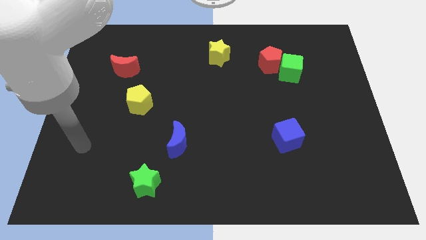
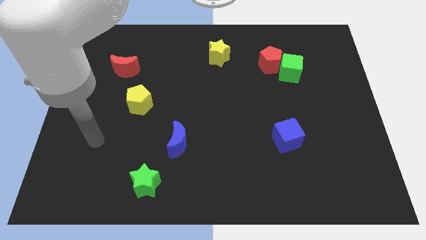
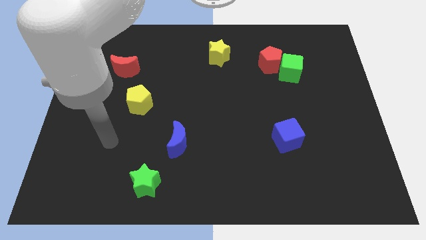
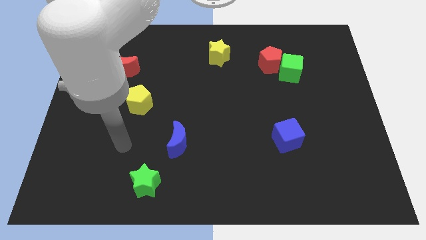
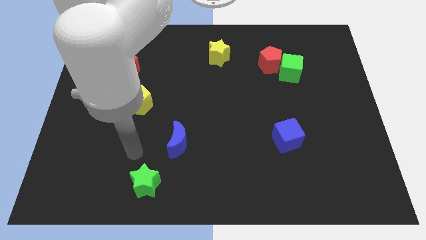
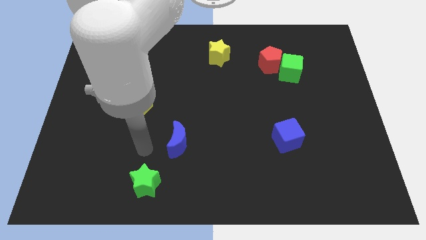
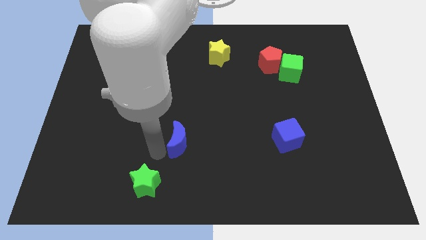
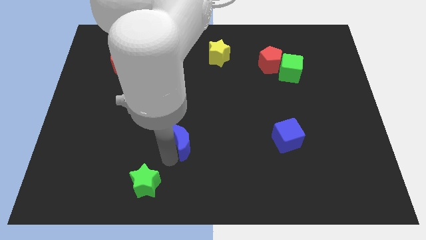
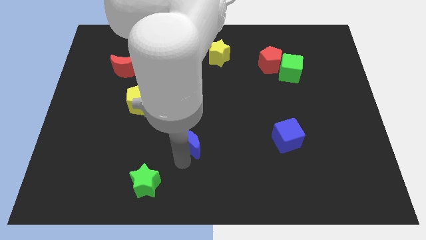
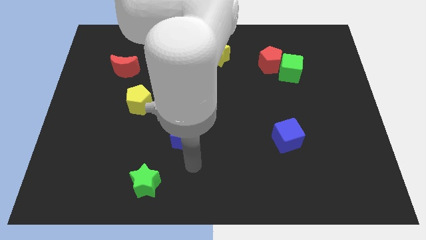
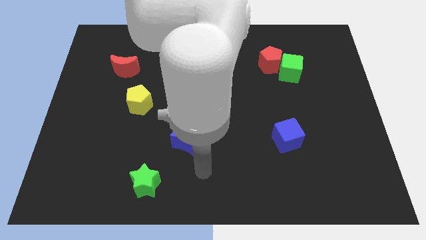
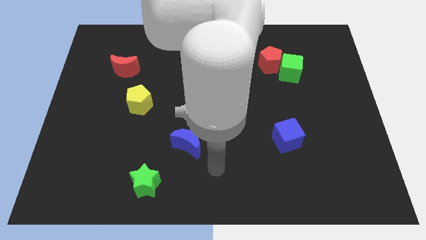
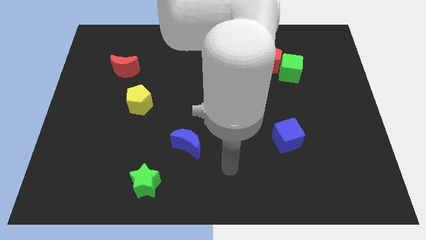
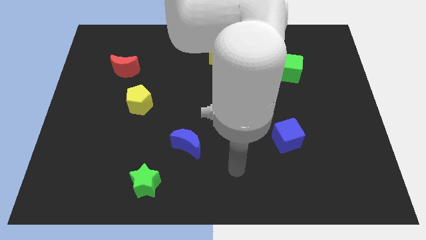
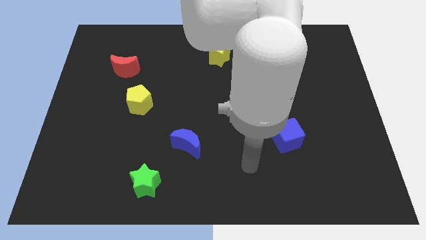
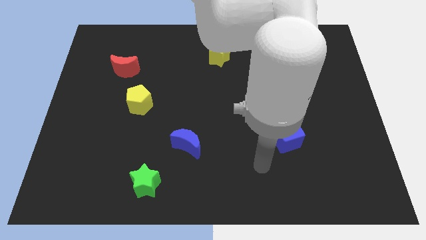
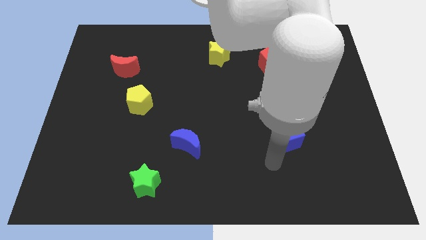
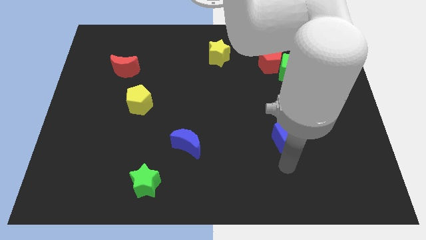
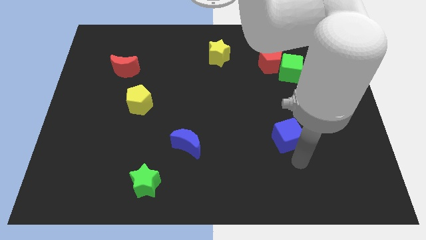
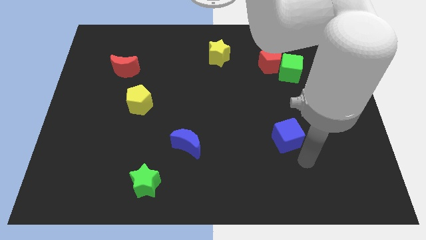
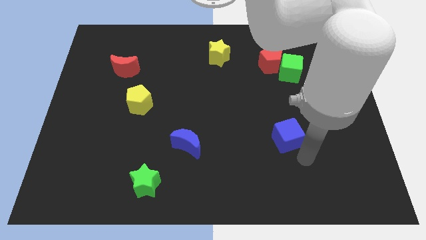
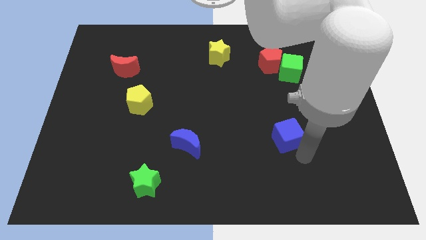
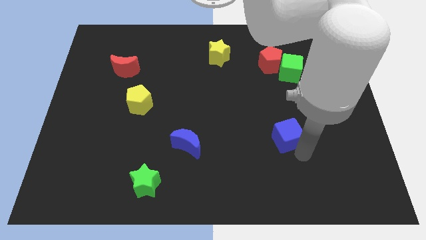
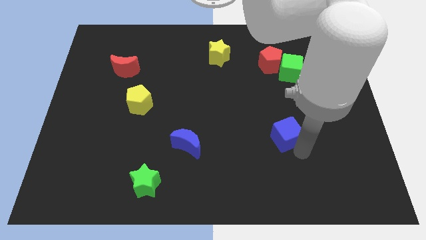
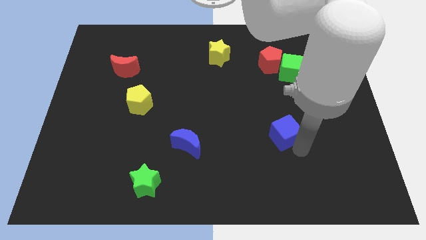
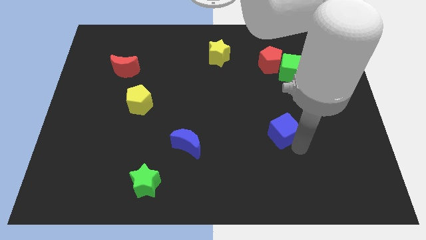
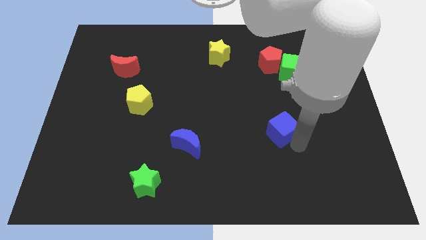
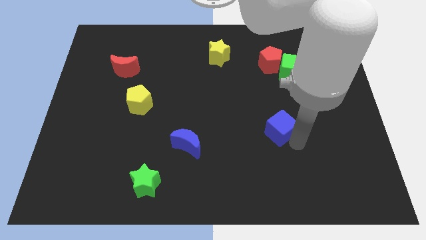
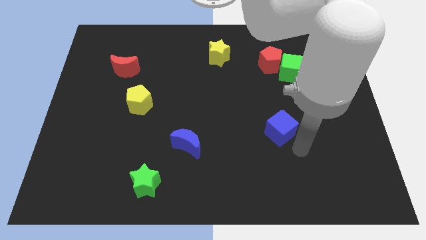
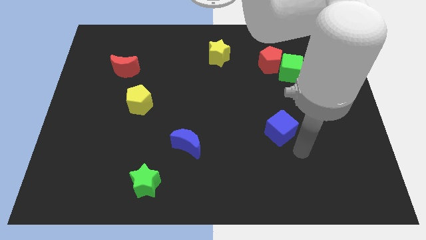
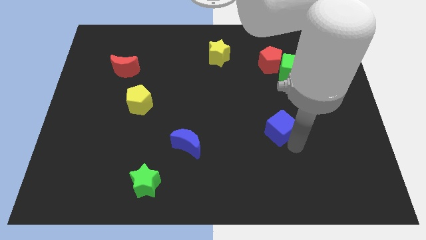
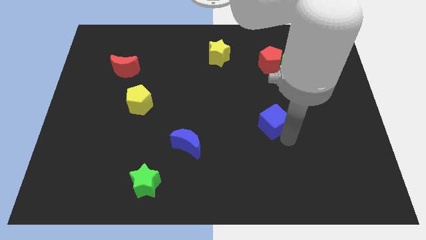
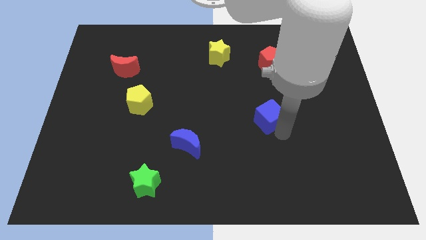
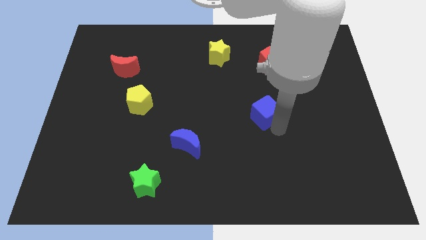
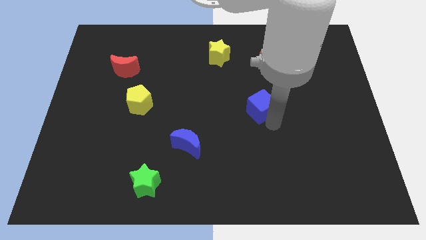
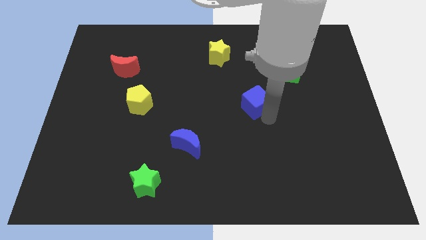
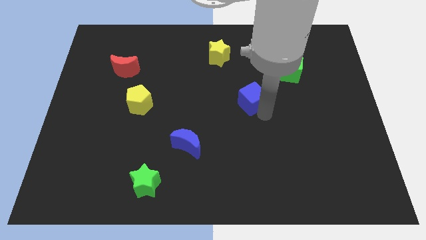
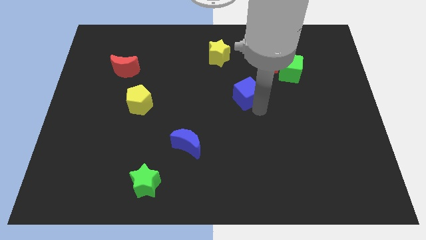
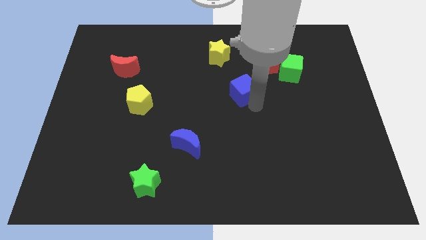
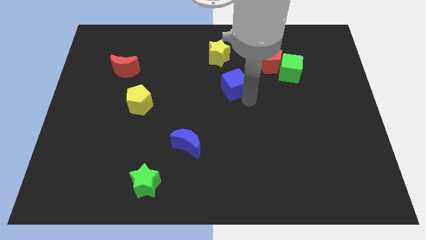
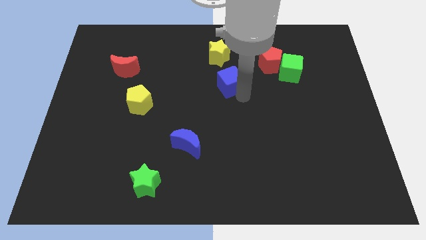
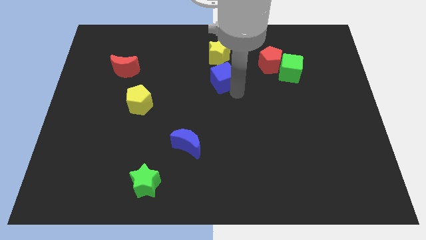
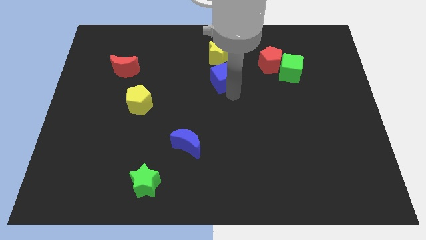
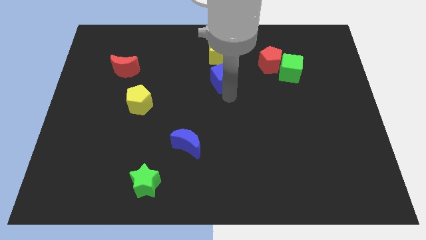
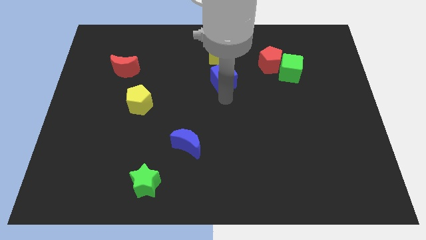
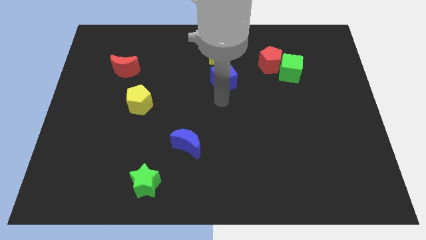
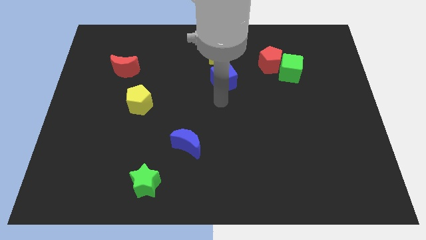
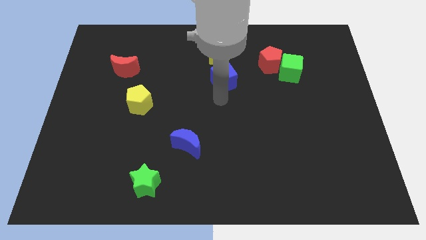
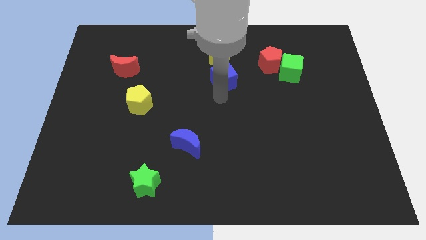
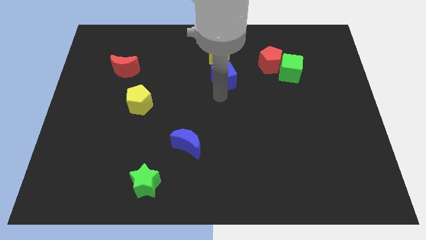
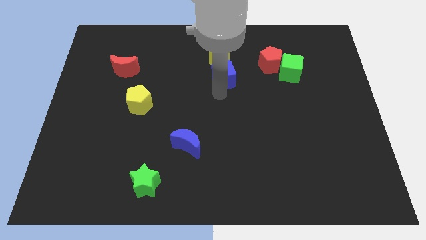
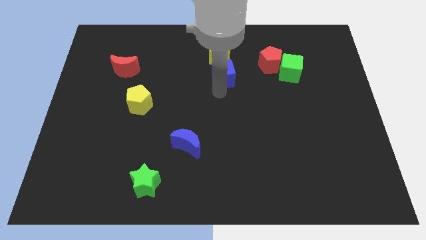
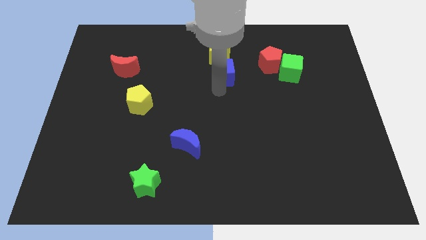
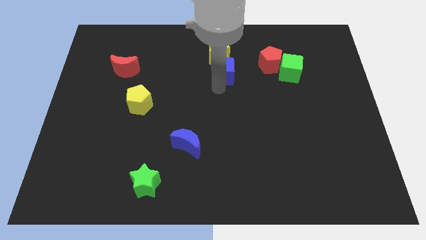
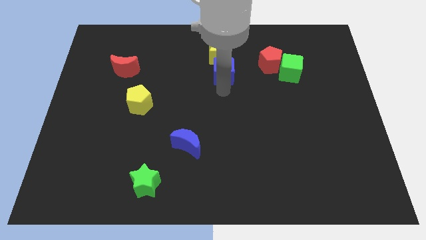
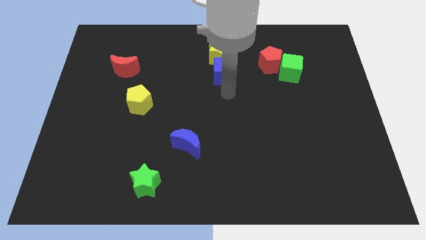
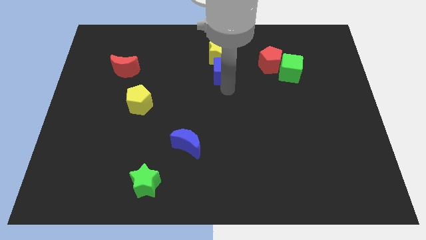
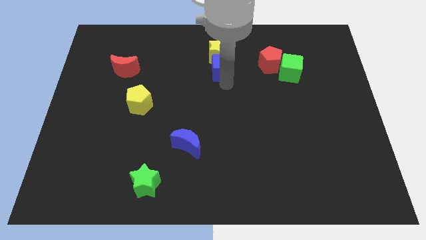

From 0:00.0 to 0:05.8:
move the blue cube next to the yellow star

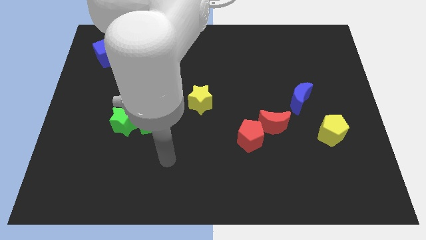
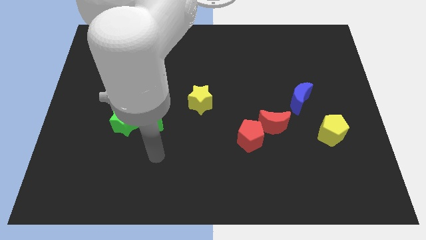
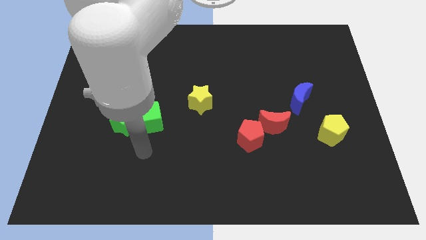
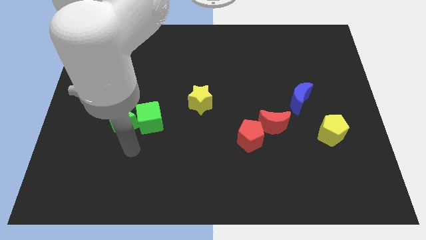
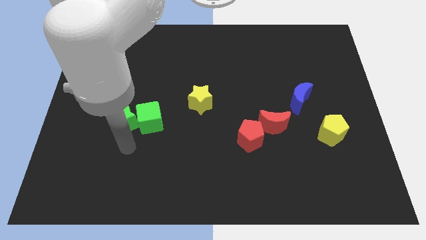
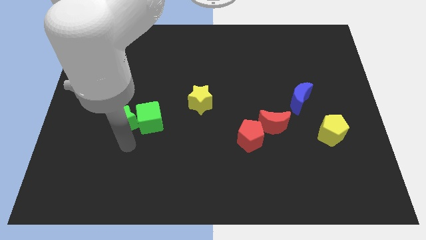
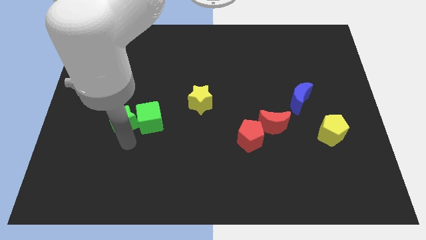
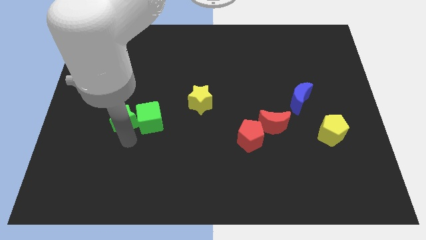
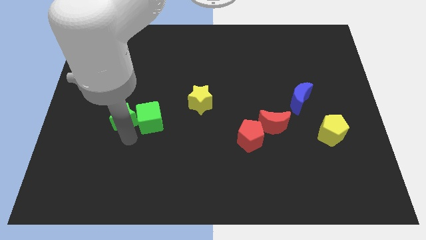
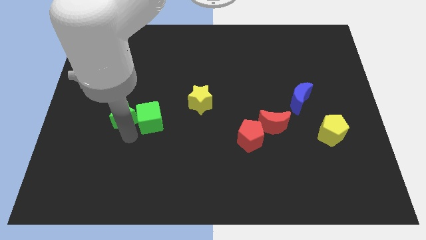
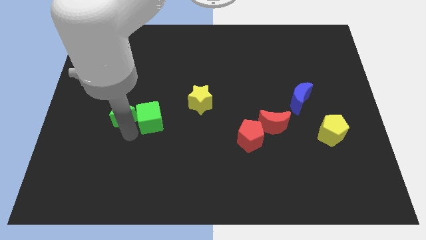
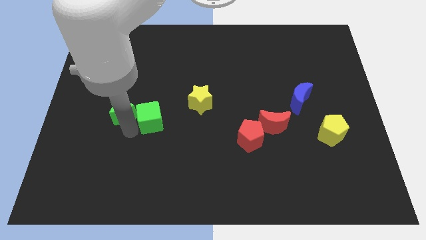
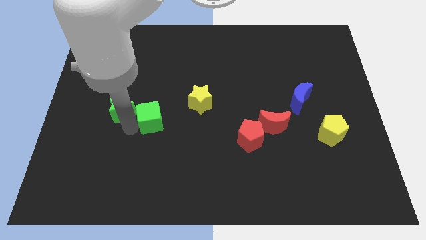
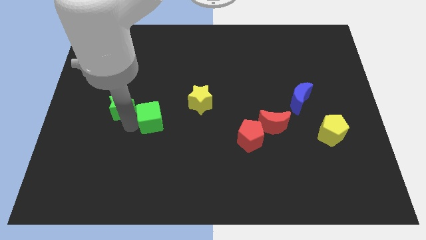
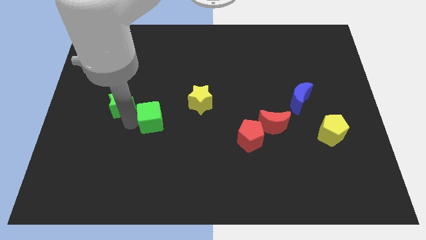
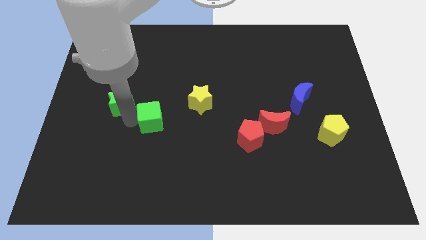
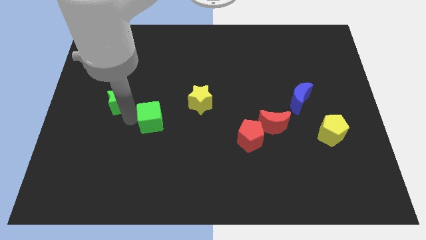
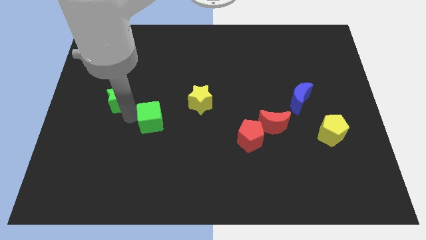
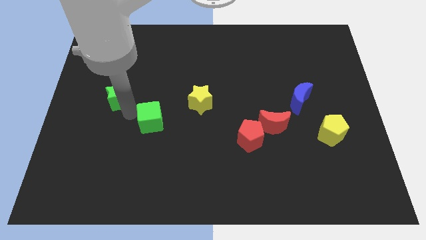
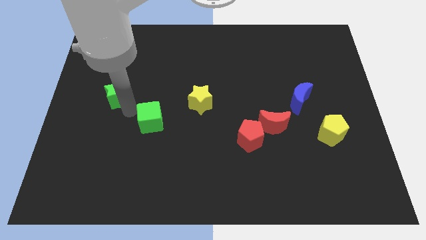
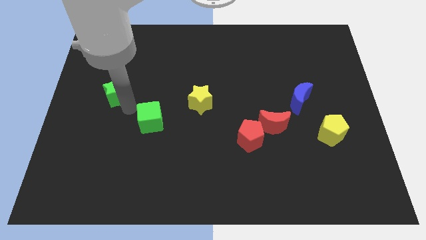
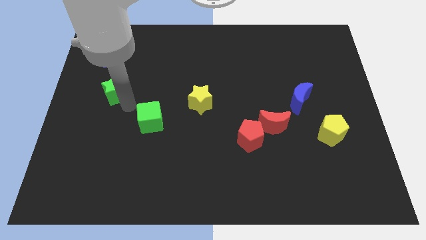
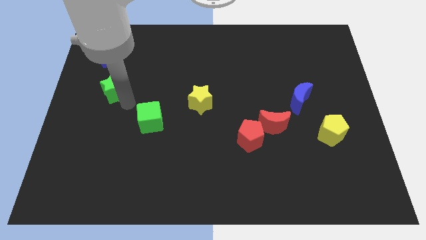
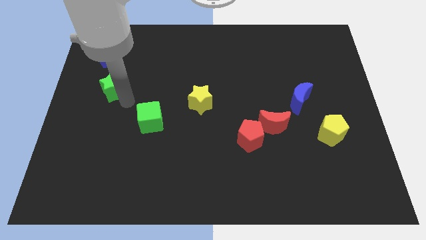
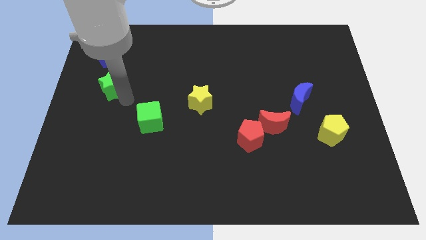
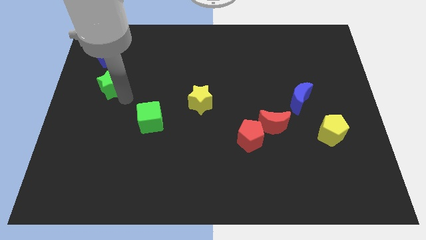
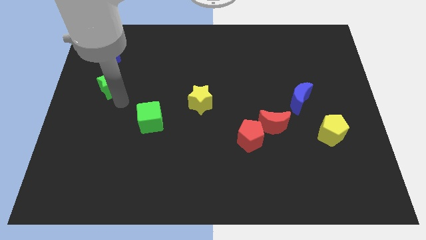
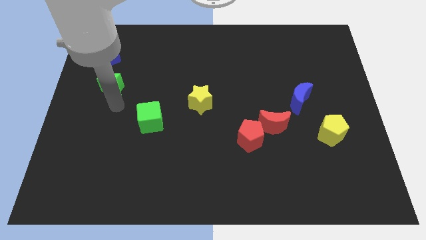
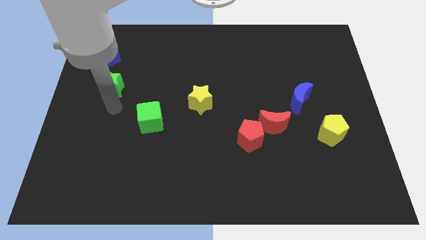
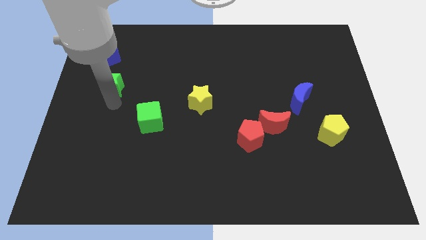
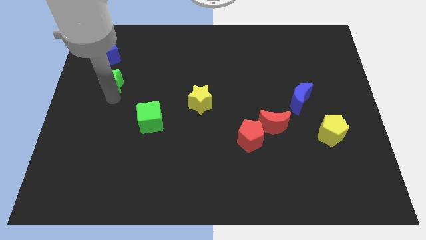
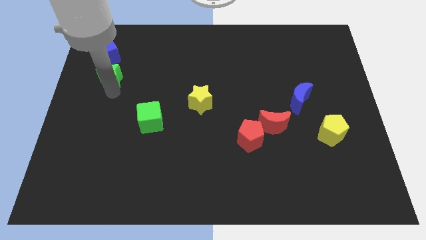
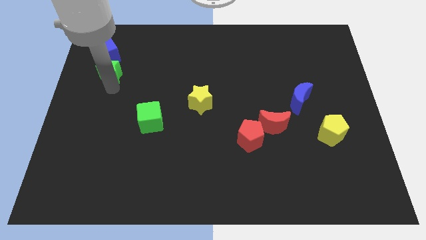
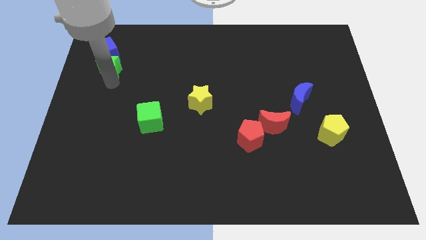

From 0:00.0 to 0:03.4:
move the green star close to the blue cube
